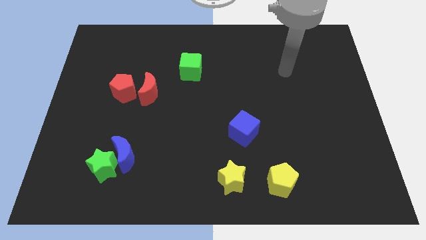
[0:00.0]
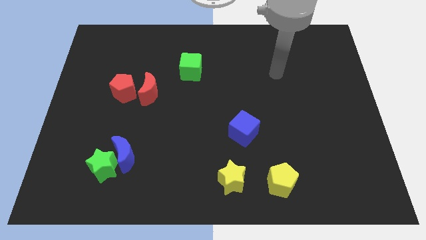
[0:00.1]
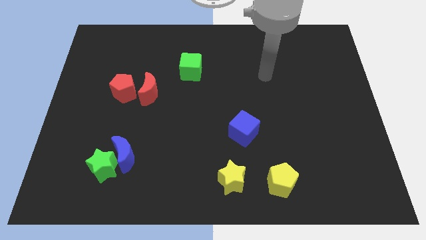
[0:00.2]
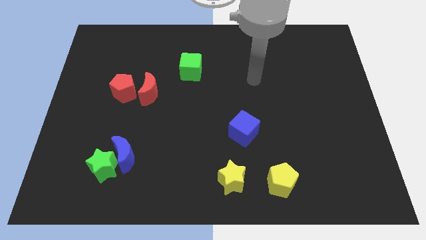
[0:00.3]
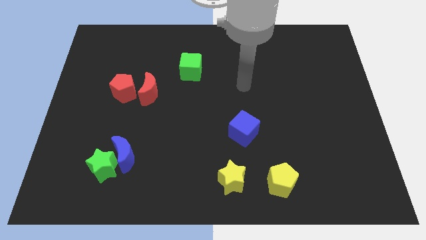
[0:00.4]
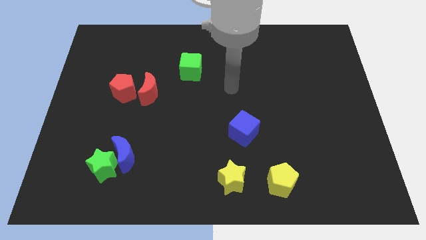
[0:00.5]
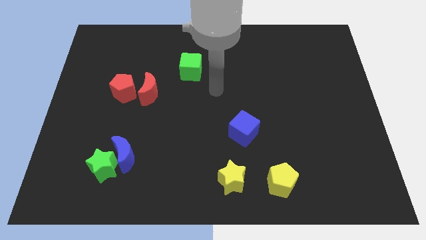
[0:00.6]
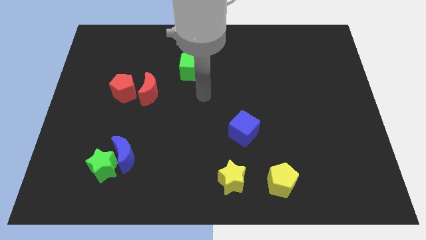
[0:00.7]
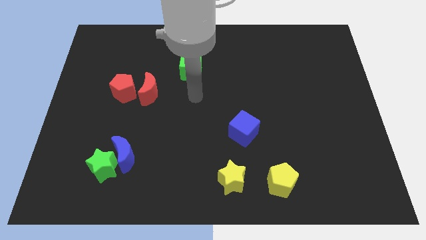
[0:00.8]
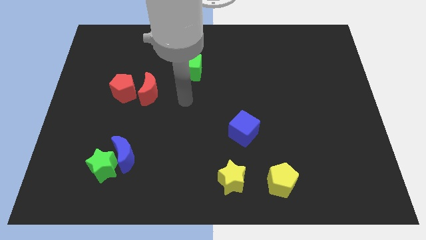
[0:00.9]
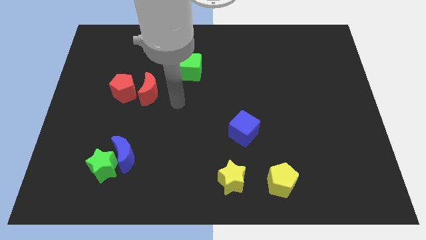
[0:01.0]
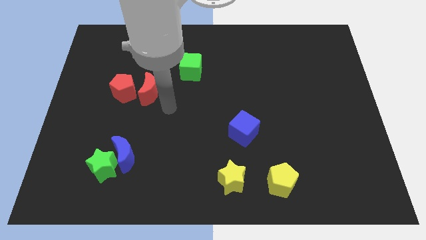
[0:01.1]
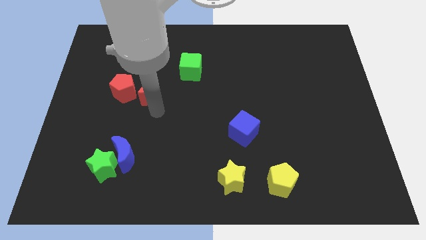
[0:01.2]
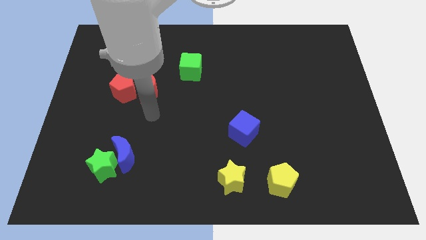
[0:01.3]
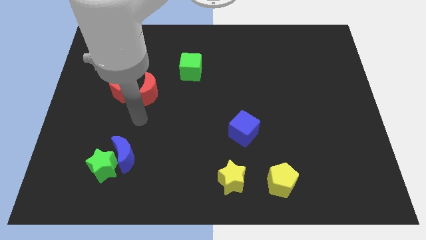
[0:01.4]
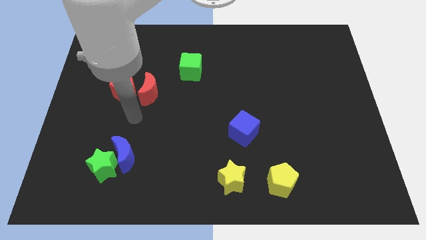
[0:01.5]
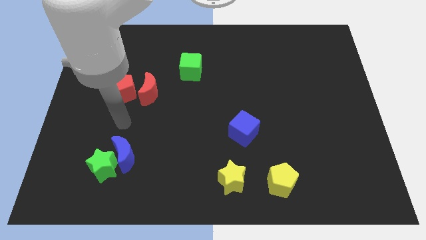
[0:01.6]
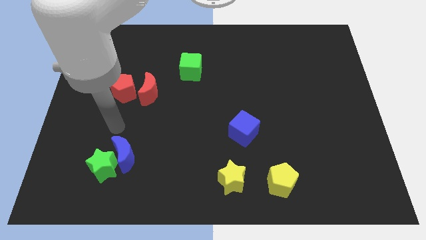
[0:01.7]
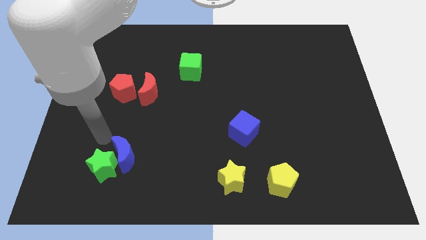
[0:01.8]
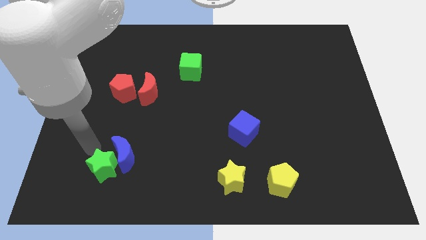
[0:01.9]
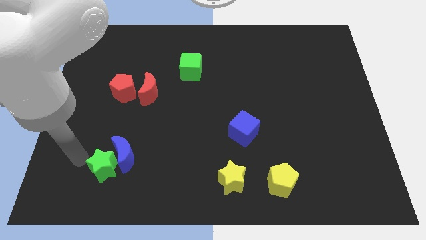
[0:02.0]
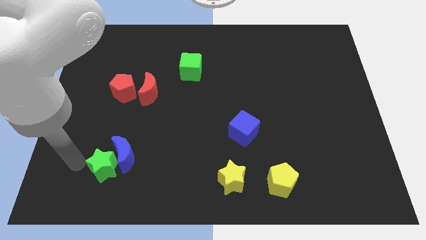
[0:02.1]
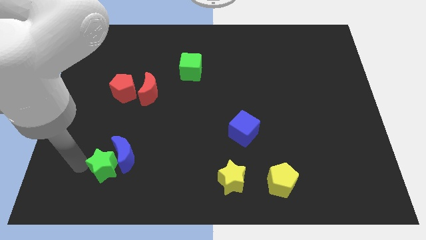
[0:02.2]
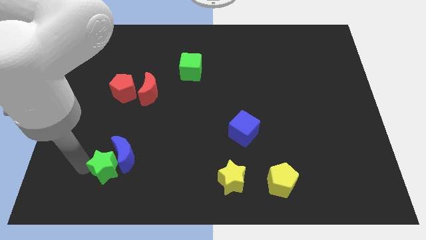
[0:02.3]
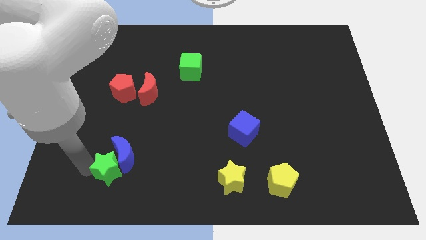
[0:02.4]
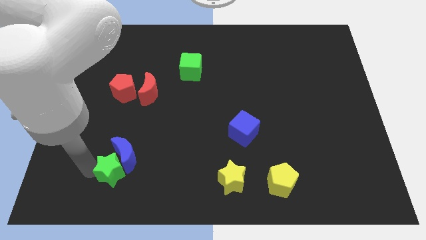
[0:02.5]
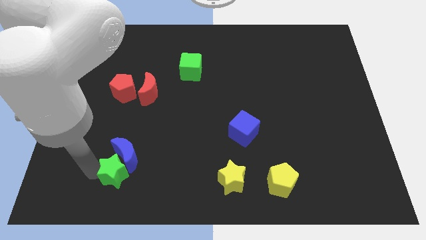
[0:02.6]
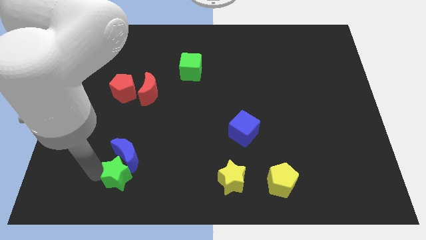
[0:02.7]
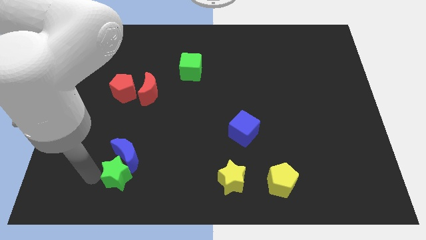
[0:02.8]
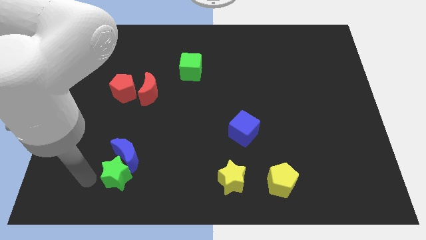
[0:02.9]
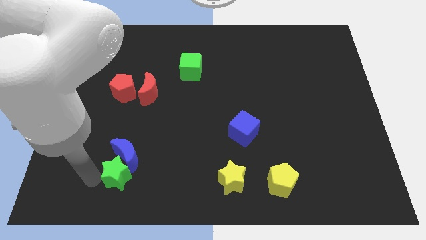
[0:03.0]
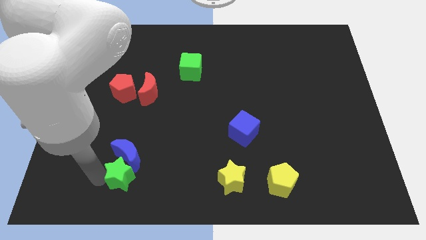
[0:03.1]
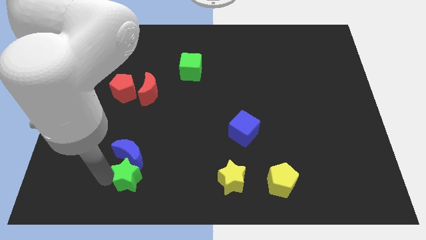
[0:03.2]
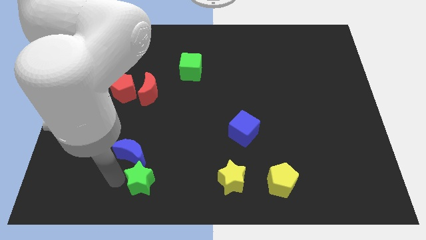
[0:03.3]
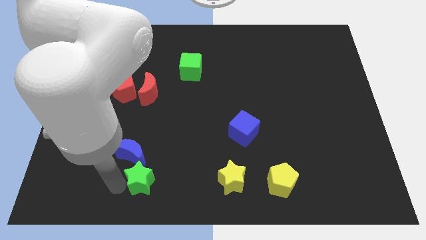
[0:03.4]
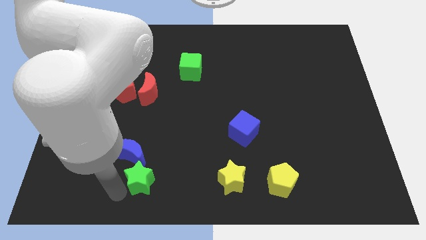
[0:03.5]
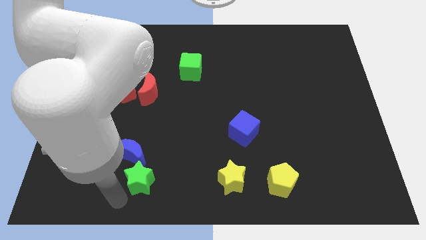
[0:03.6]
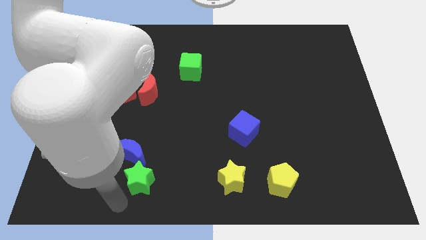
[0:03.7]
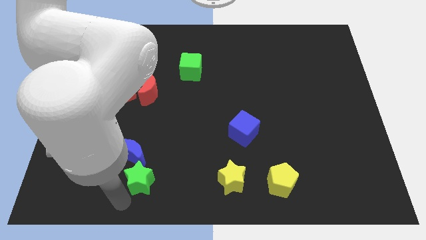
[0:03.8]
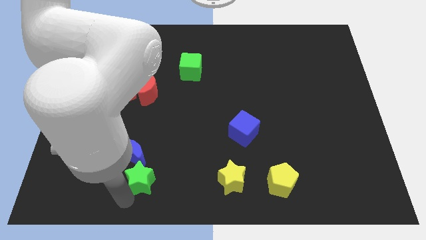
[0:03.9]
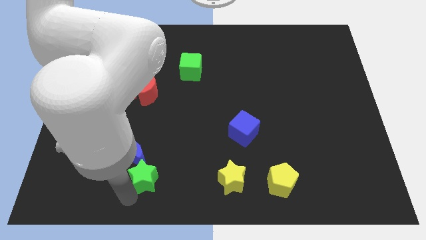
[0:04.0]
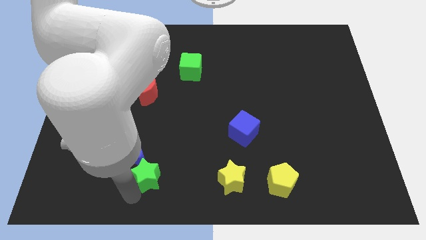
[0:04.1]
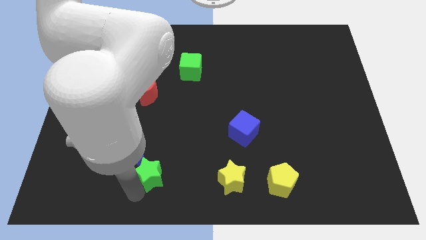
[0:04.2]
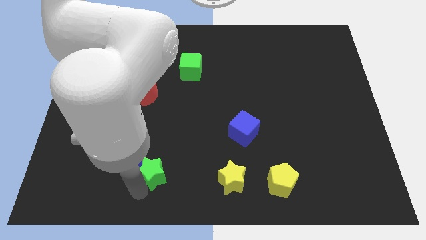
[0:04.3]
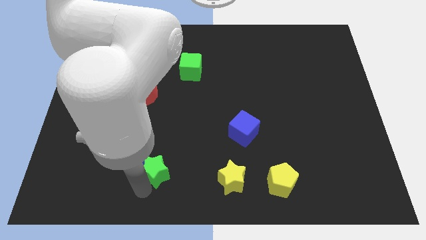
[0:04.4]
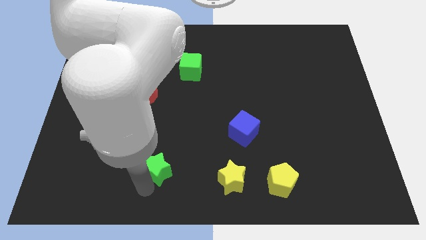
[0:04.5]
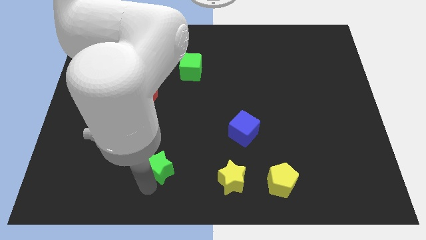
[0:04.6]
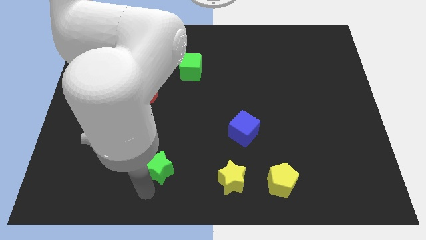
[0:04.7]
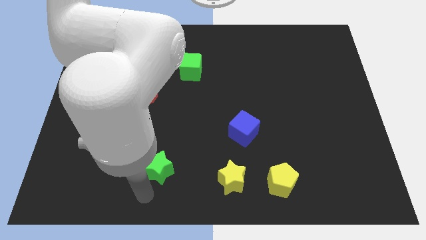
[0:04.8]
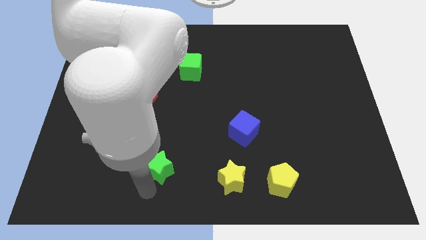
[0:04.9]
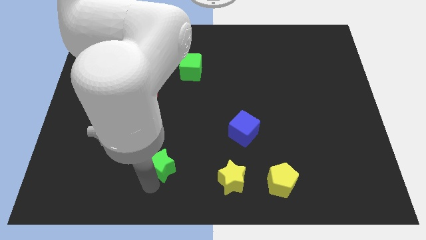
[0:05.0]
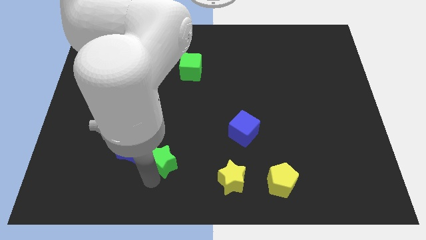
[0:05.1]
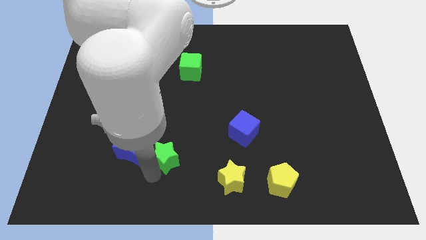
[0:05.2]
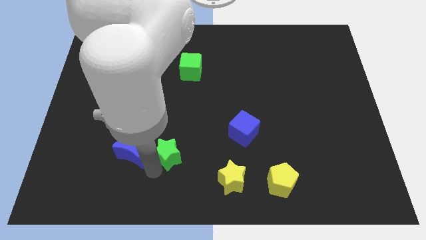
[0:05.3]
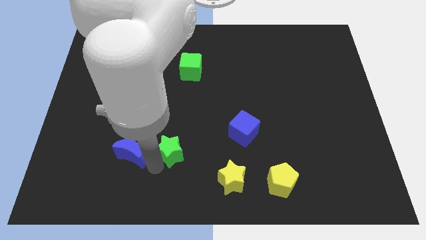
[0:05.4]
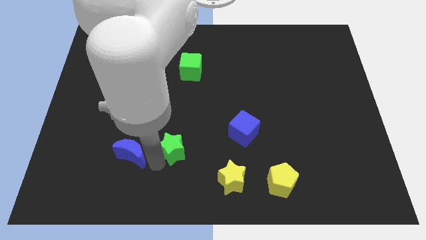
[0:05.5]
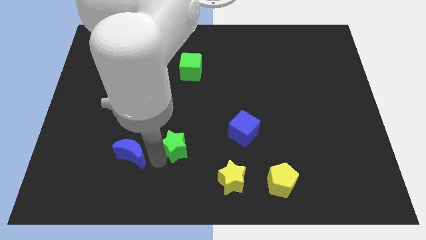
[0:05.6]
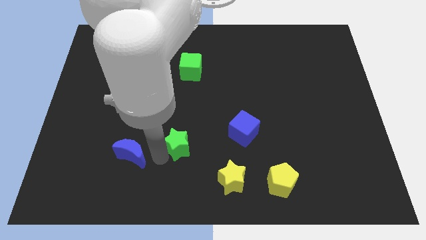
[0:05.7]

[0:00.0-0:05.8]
put the green star just left of the blue cube

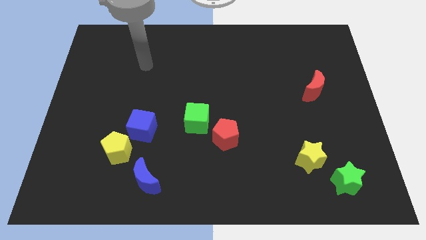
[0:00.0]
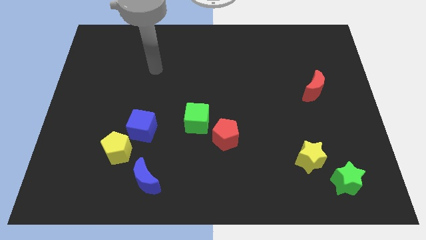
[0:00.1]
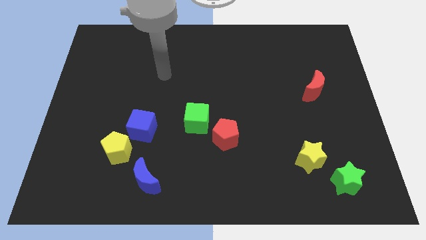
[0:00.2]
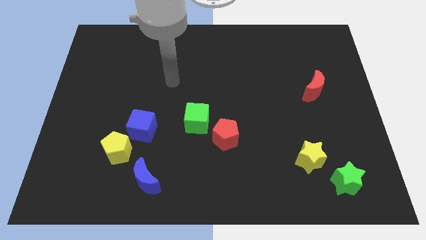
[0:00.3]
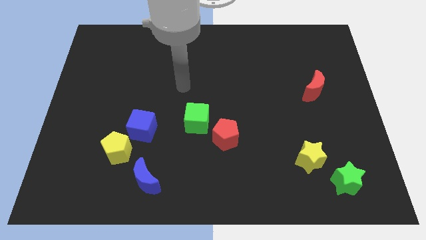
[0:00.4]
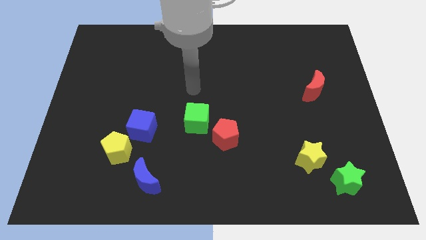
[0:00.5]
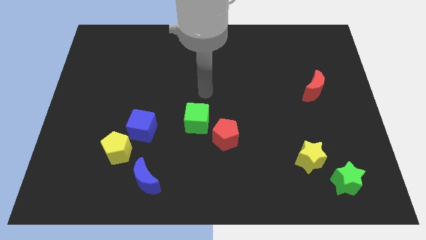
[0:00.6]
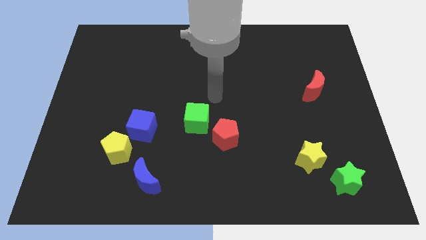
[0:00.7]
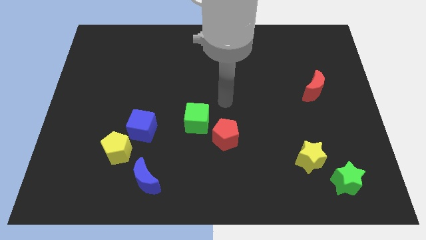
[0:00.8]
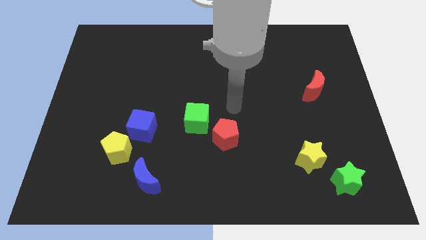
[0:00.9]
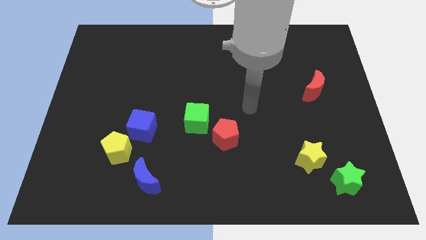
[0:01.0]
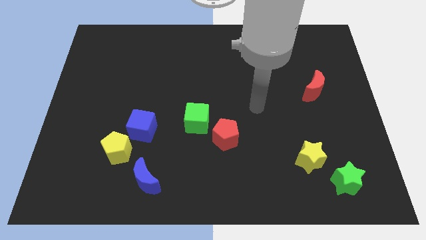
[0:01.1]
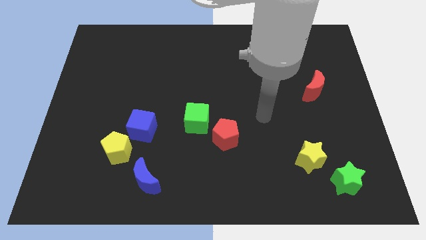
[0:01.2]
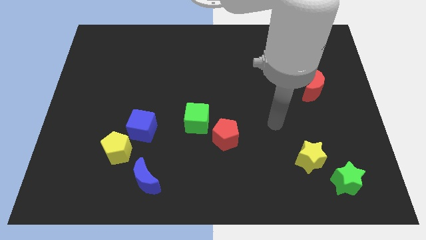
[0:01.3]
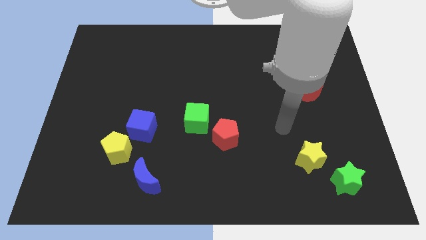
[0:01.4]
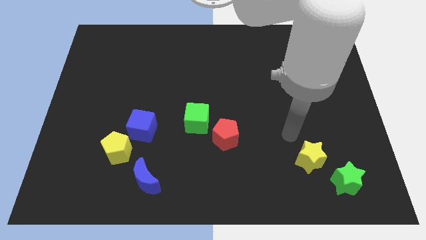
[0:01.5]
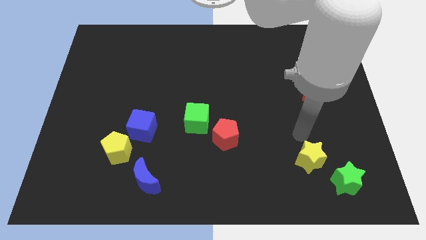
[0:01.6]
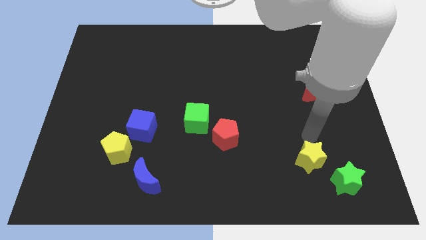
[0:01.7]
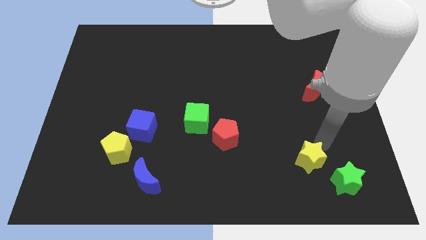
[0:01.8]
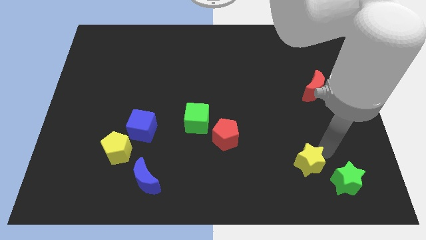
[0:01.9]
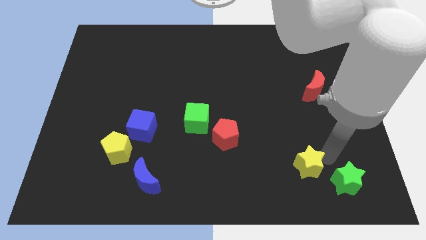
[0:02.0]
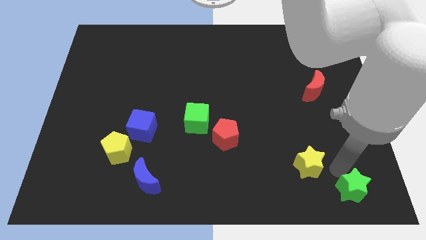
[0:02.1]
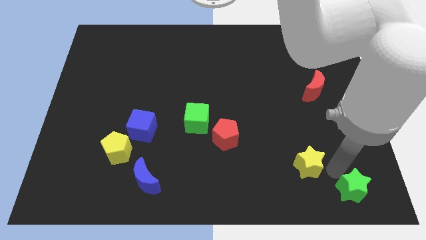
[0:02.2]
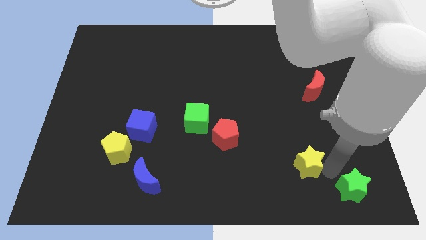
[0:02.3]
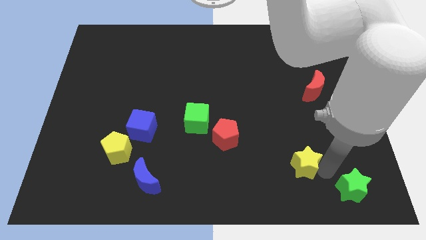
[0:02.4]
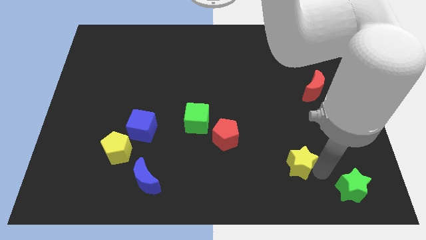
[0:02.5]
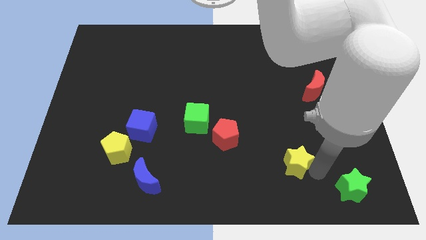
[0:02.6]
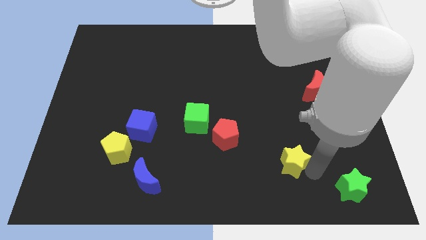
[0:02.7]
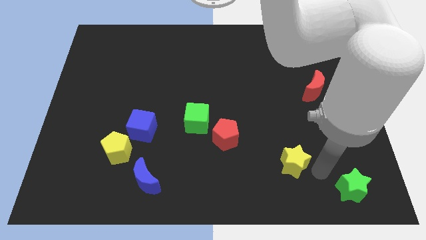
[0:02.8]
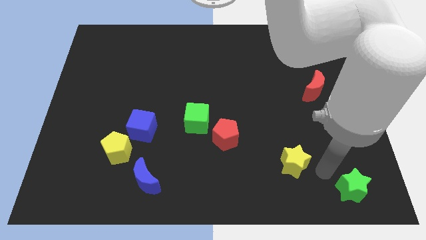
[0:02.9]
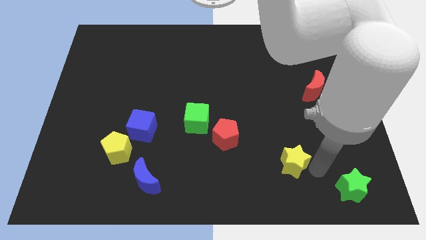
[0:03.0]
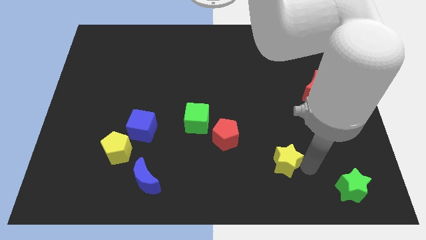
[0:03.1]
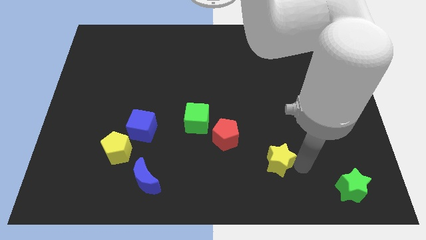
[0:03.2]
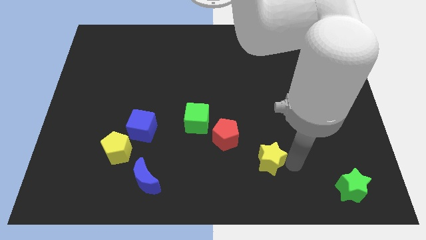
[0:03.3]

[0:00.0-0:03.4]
push the yellow star diagonally down and to the right of the red pentagon
